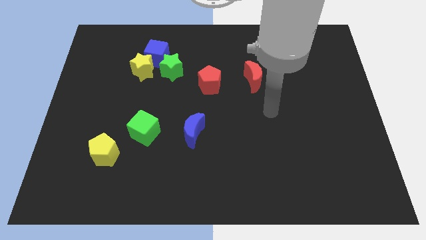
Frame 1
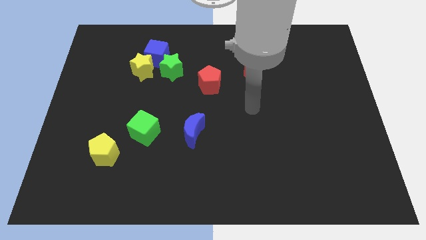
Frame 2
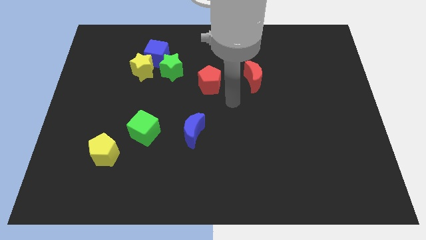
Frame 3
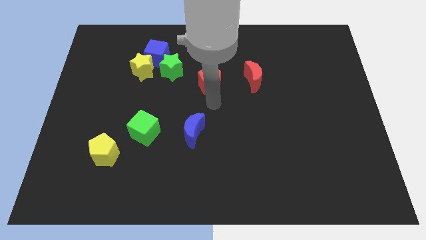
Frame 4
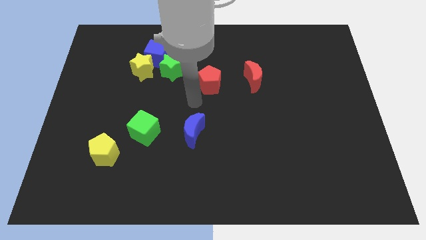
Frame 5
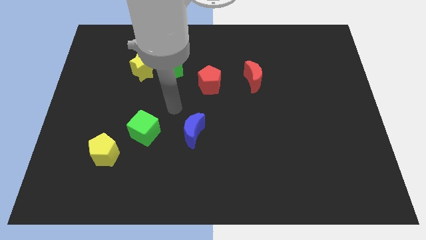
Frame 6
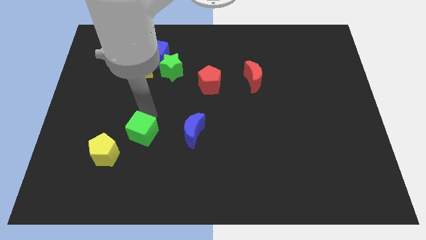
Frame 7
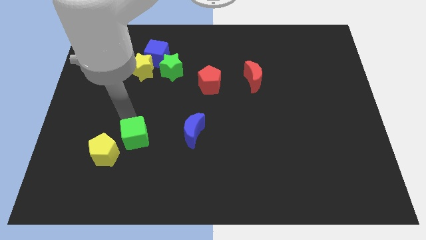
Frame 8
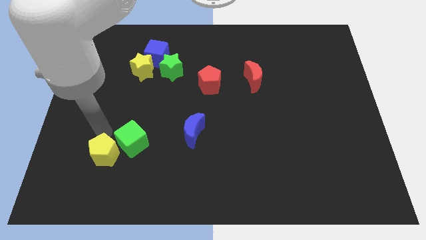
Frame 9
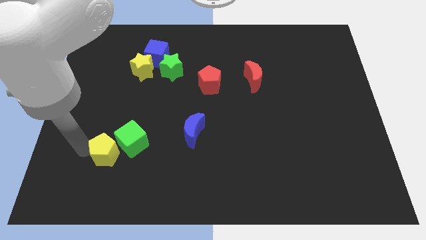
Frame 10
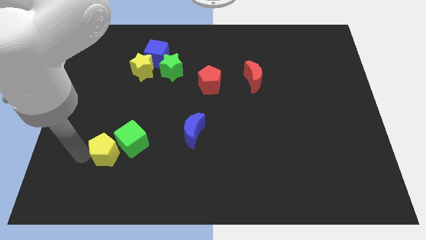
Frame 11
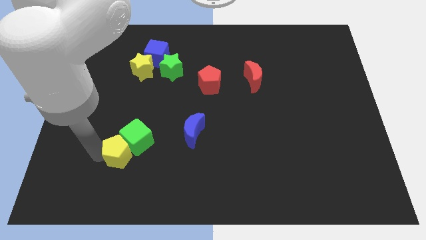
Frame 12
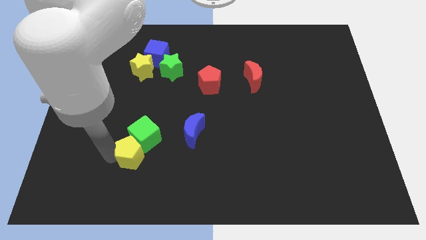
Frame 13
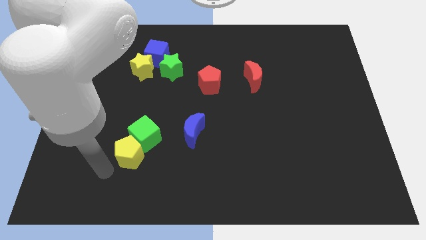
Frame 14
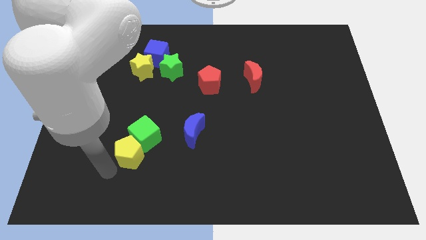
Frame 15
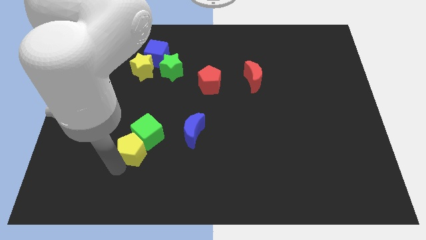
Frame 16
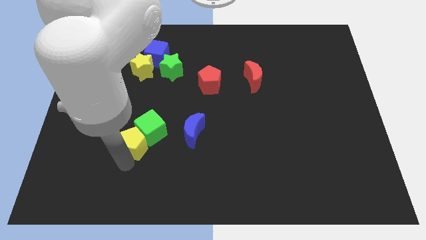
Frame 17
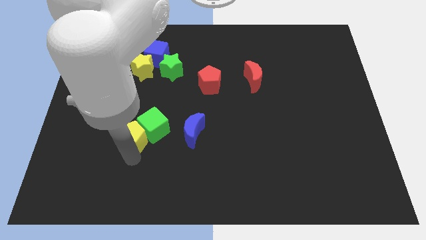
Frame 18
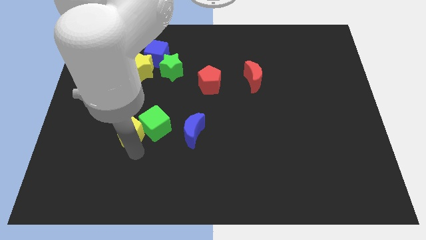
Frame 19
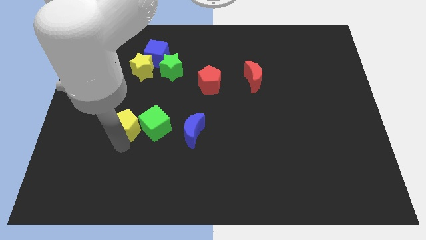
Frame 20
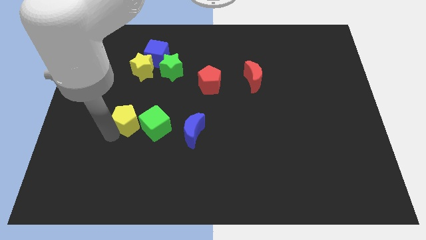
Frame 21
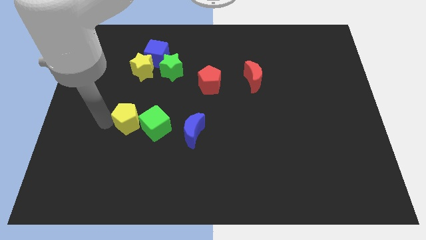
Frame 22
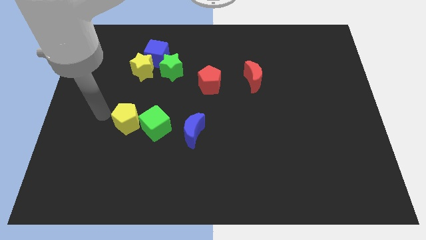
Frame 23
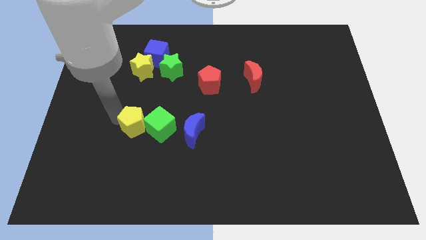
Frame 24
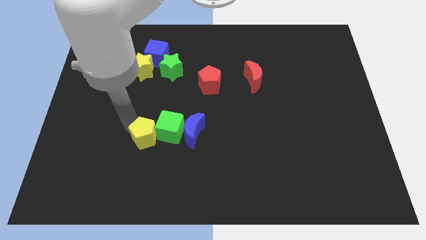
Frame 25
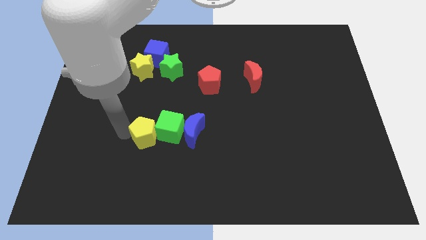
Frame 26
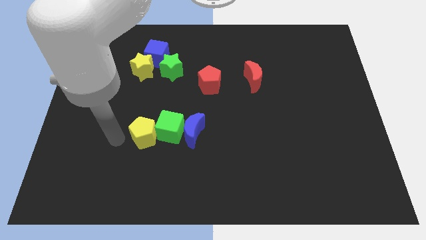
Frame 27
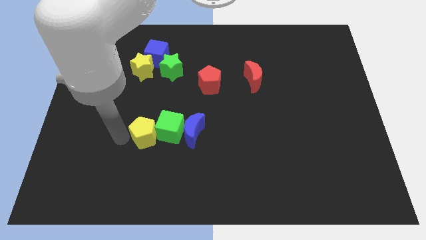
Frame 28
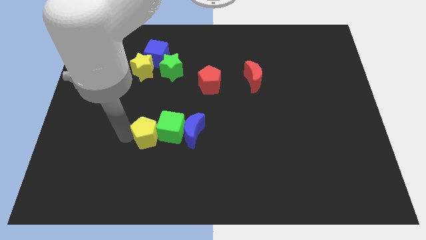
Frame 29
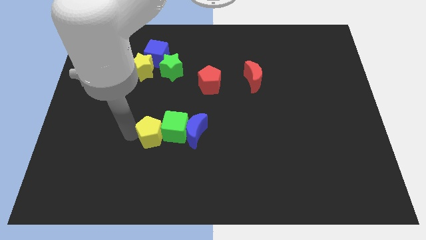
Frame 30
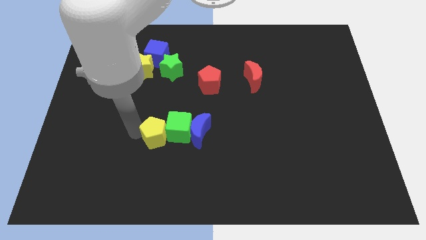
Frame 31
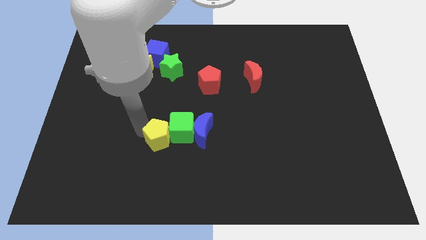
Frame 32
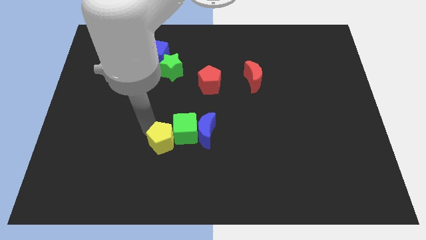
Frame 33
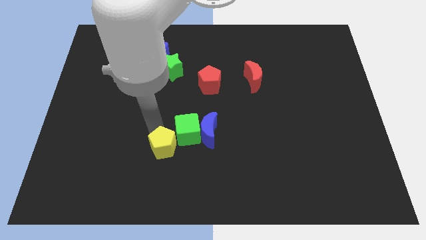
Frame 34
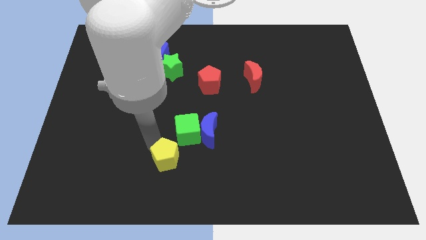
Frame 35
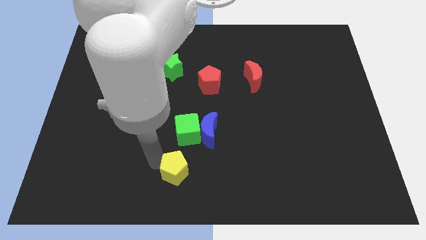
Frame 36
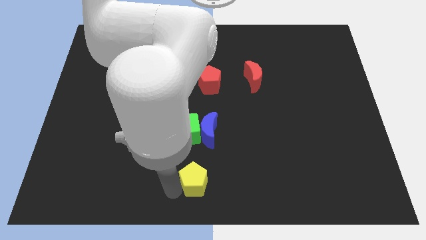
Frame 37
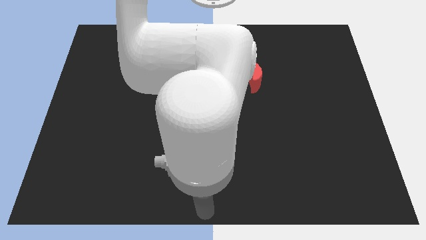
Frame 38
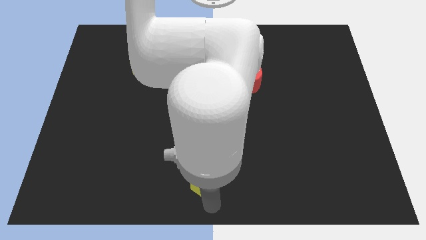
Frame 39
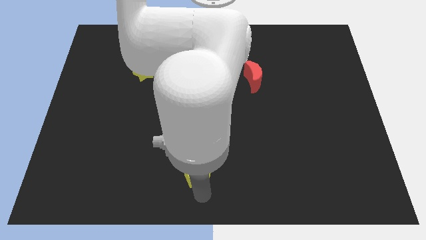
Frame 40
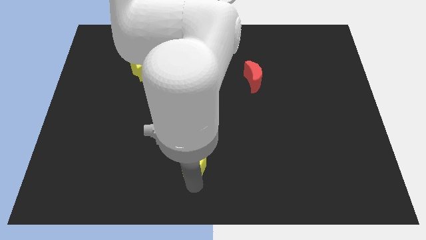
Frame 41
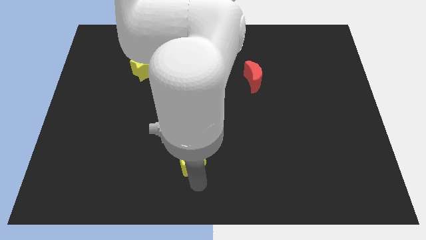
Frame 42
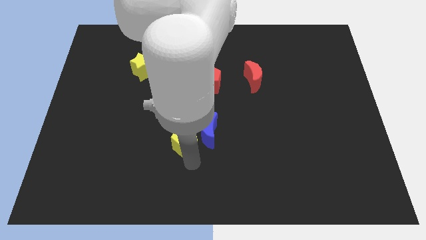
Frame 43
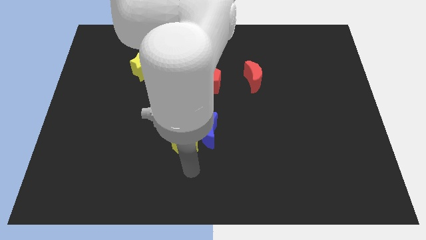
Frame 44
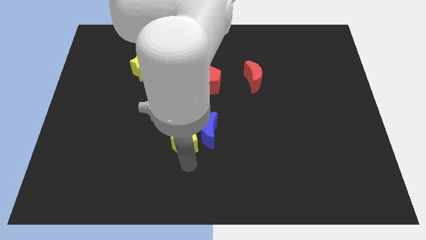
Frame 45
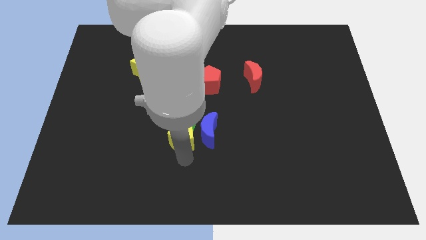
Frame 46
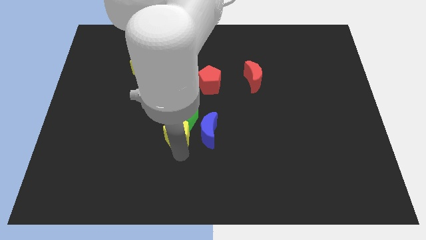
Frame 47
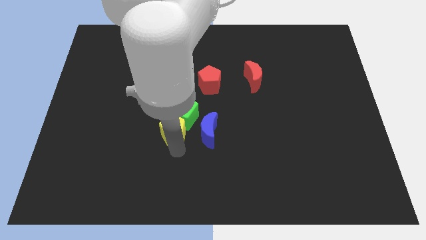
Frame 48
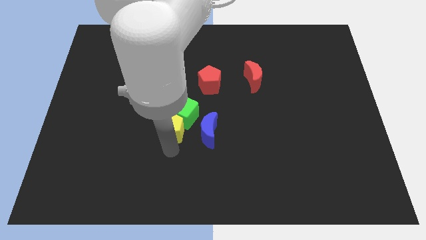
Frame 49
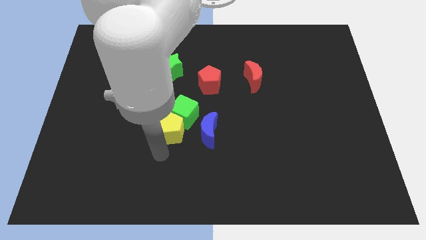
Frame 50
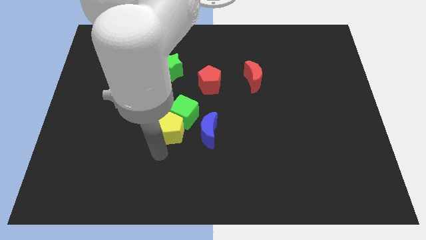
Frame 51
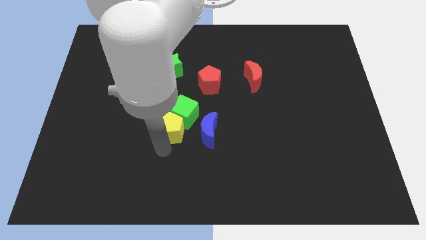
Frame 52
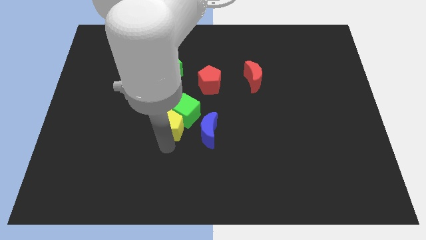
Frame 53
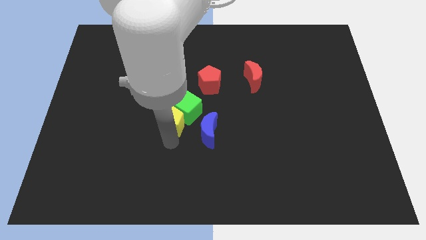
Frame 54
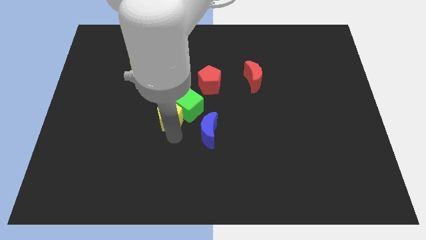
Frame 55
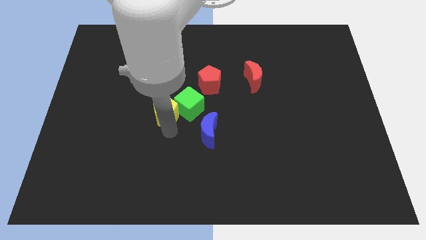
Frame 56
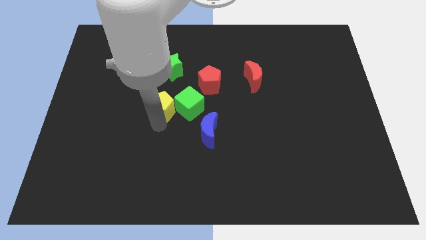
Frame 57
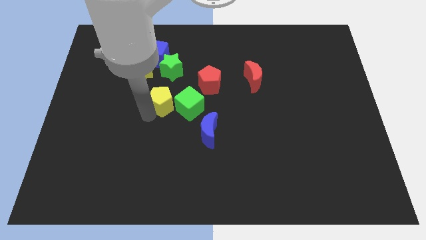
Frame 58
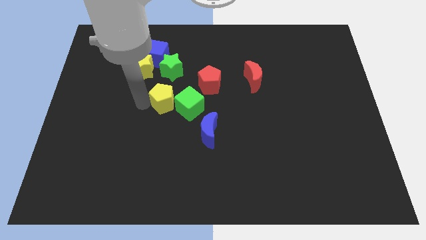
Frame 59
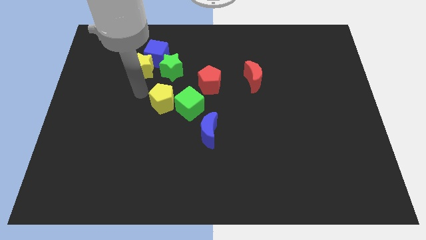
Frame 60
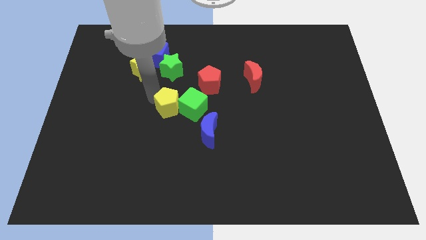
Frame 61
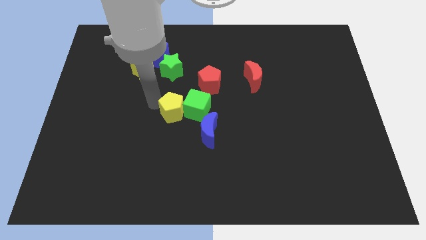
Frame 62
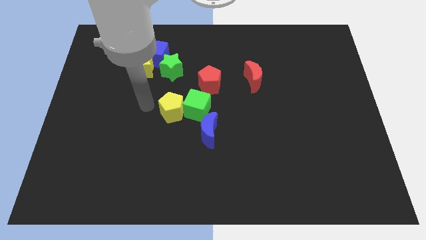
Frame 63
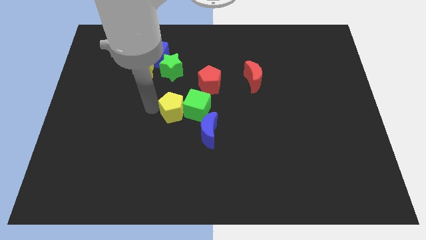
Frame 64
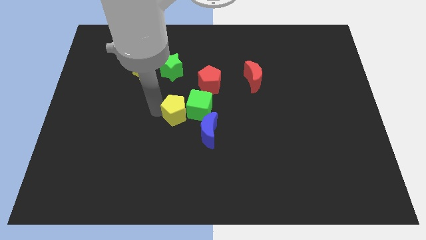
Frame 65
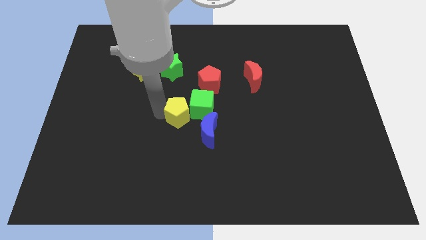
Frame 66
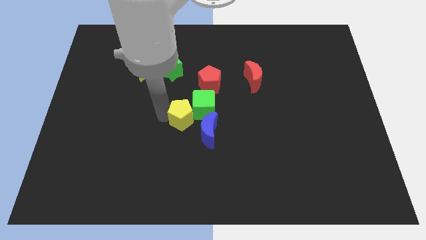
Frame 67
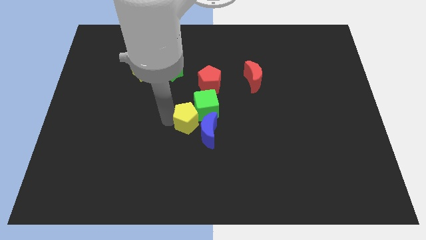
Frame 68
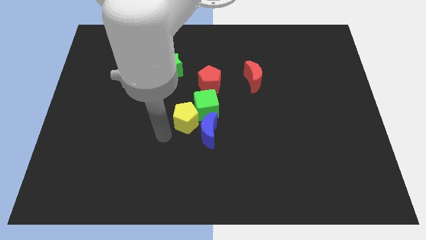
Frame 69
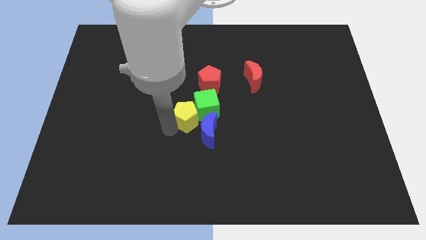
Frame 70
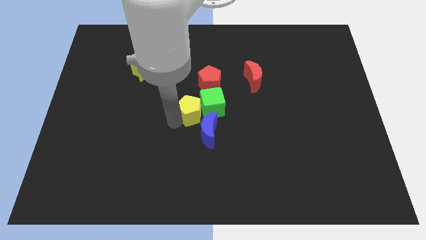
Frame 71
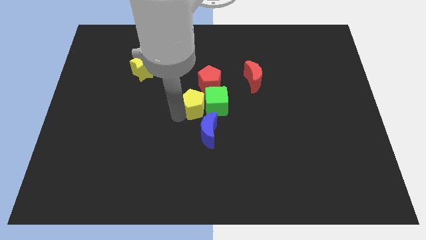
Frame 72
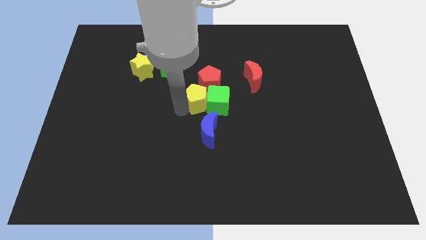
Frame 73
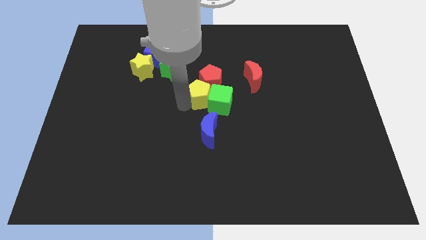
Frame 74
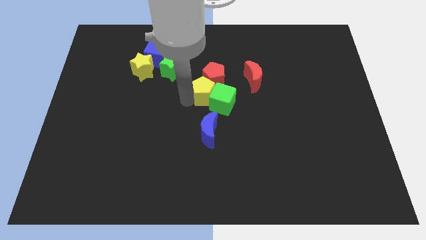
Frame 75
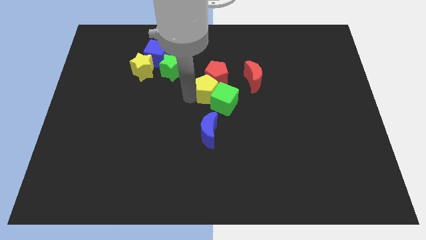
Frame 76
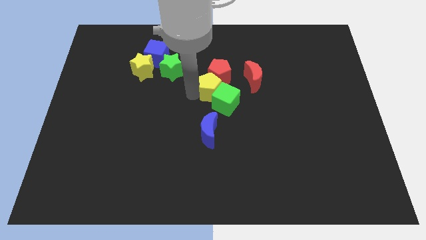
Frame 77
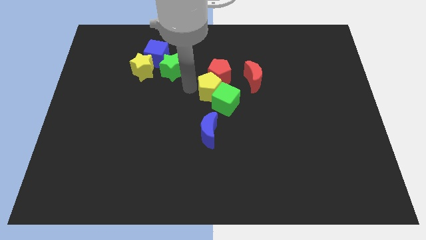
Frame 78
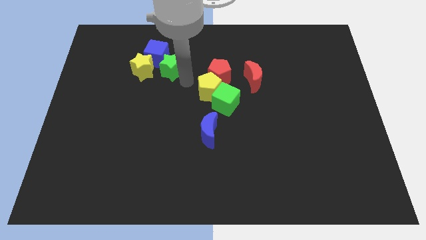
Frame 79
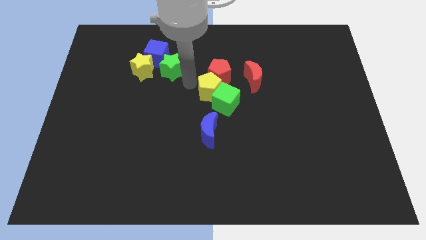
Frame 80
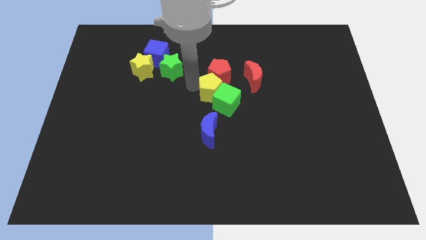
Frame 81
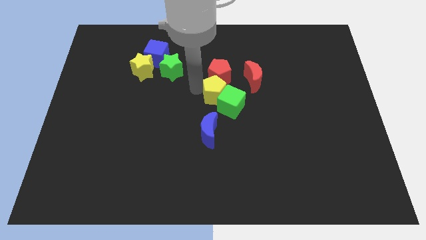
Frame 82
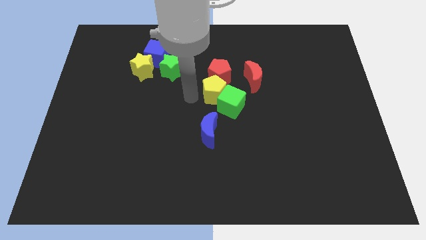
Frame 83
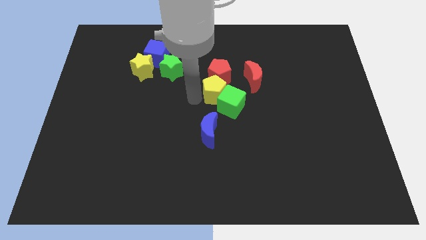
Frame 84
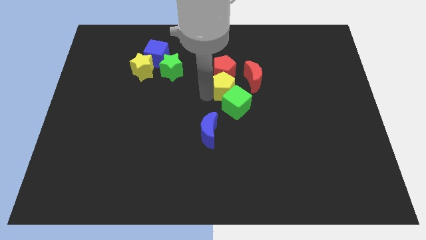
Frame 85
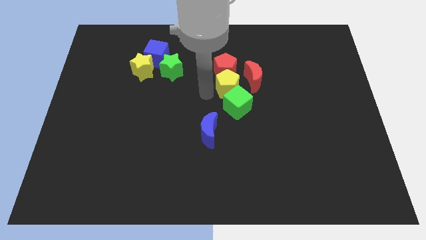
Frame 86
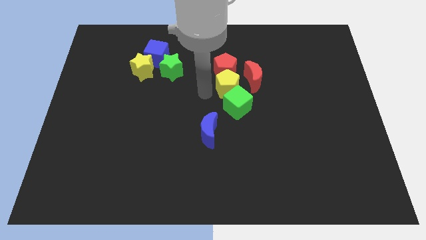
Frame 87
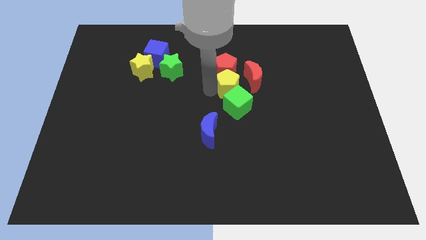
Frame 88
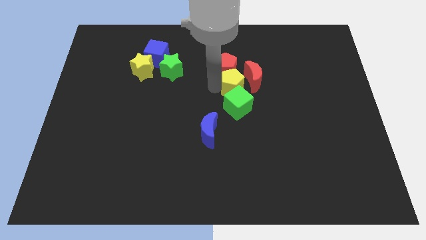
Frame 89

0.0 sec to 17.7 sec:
put the yellow pentagon next to the red moon
